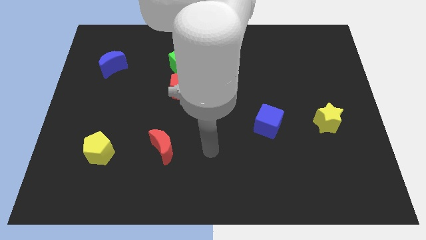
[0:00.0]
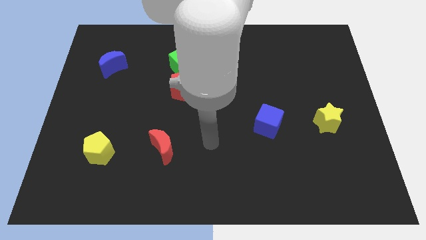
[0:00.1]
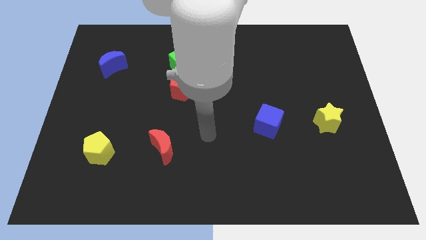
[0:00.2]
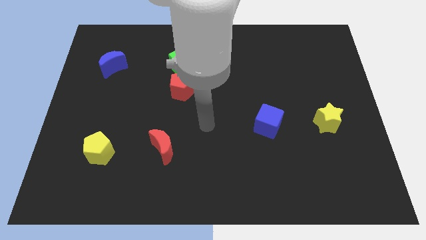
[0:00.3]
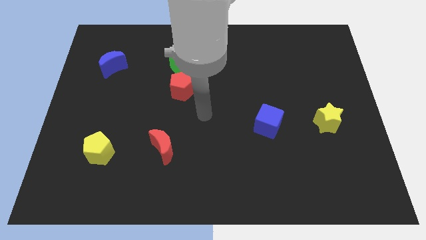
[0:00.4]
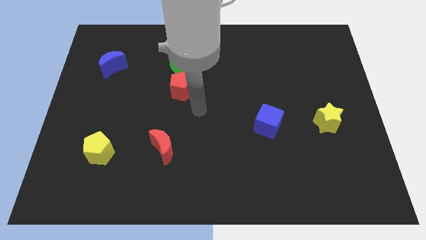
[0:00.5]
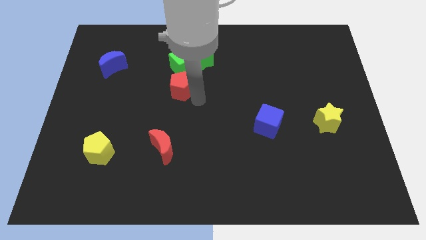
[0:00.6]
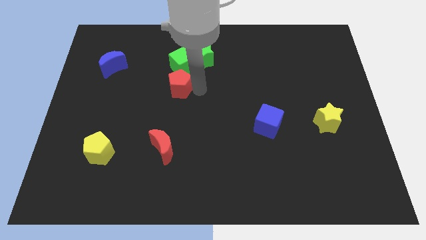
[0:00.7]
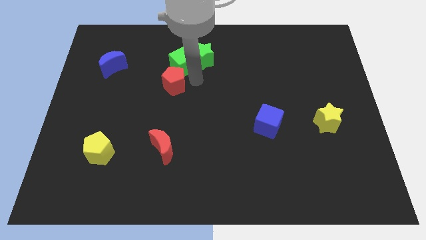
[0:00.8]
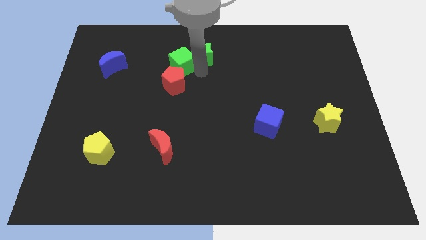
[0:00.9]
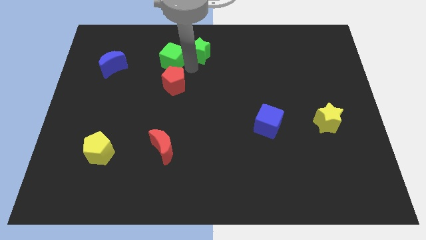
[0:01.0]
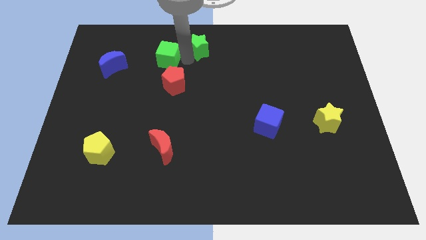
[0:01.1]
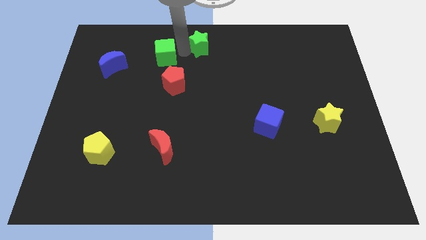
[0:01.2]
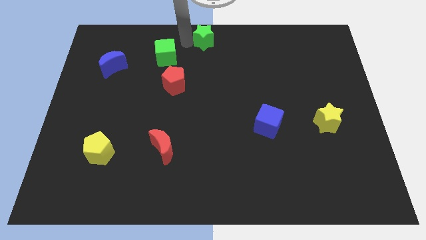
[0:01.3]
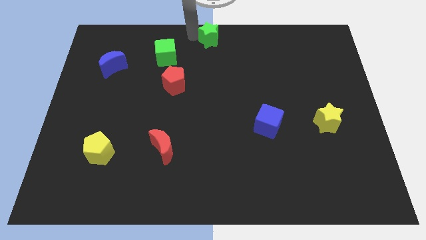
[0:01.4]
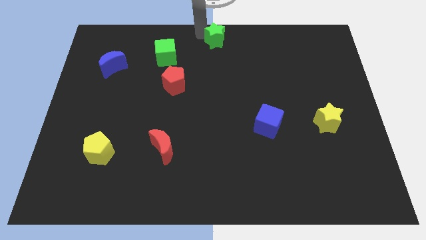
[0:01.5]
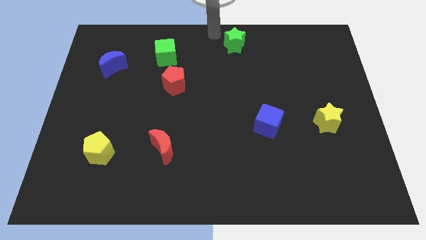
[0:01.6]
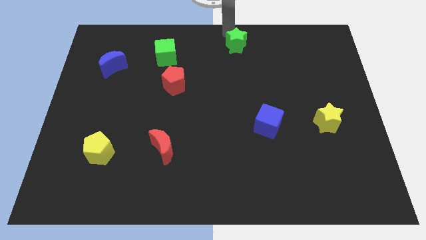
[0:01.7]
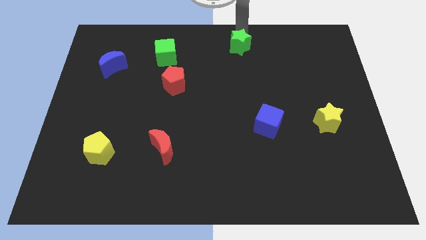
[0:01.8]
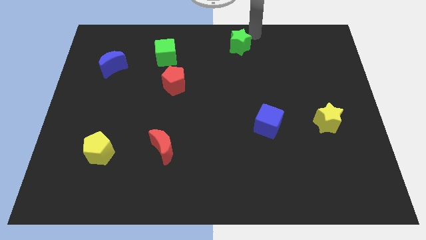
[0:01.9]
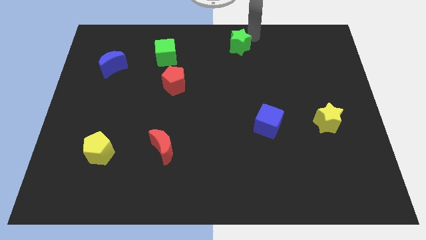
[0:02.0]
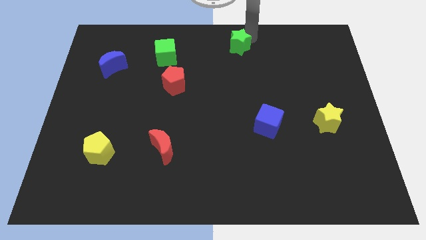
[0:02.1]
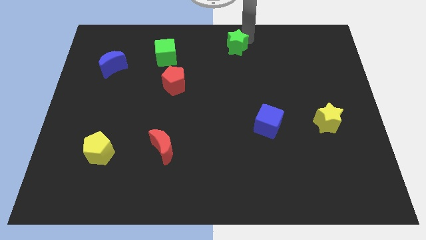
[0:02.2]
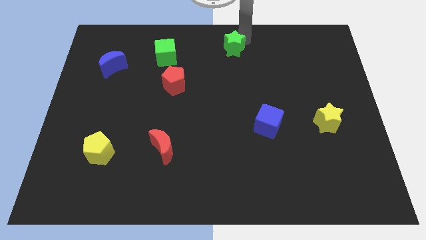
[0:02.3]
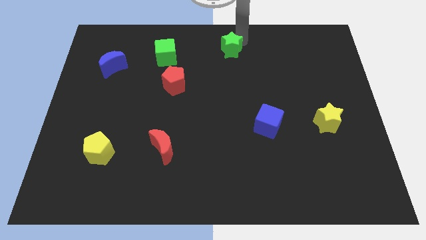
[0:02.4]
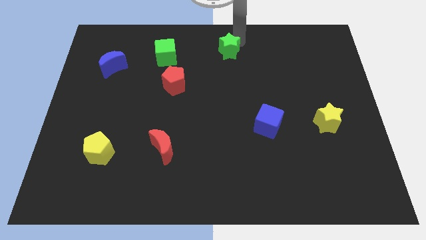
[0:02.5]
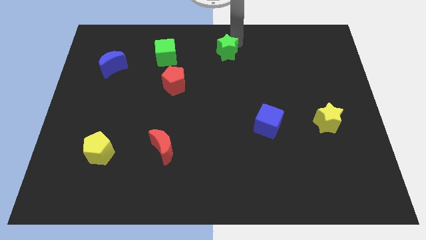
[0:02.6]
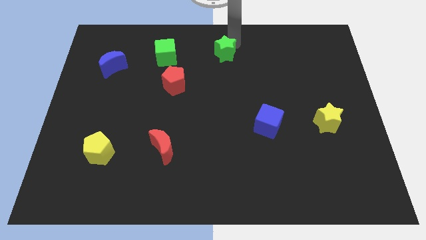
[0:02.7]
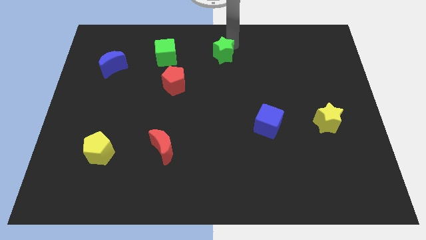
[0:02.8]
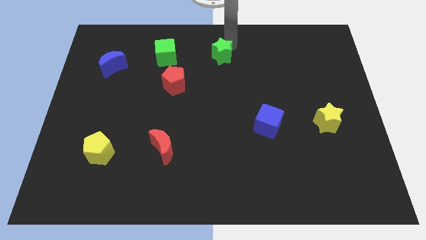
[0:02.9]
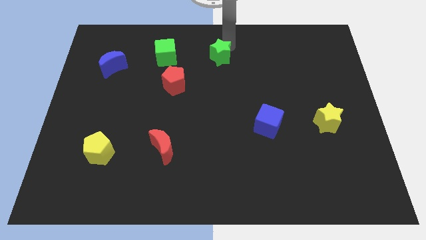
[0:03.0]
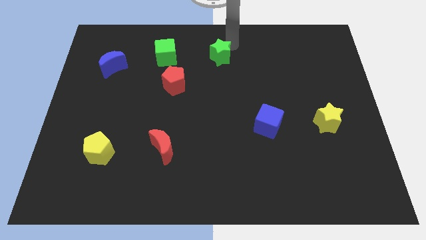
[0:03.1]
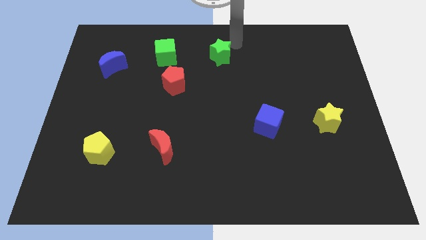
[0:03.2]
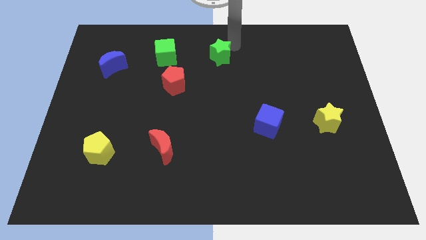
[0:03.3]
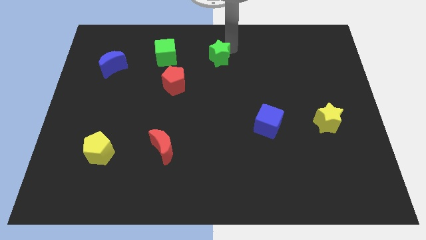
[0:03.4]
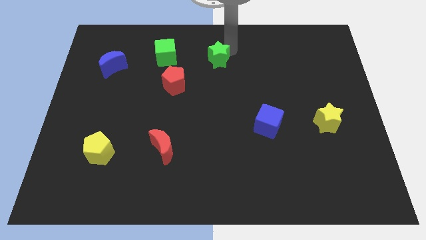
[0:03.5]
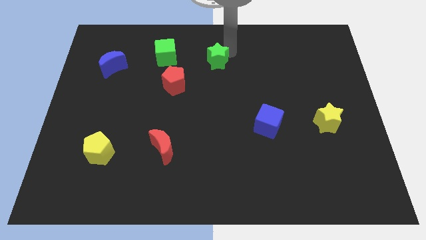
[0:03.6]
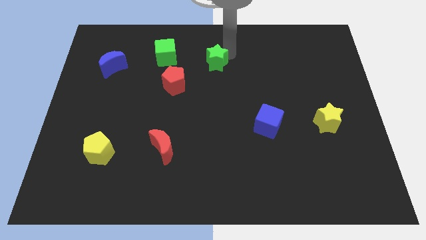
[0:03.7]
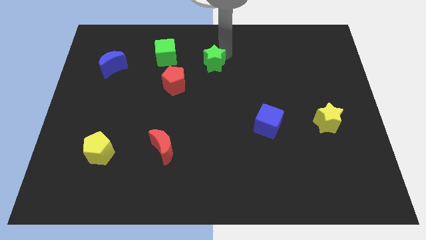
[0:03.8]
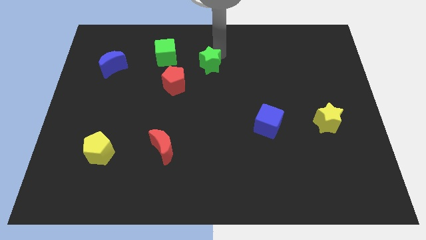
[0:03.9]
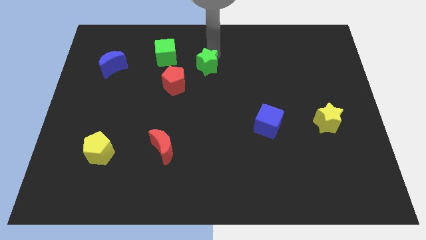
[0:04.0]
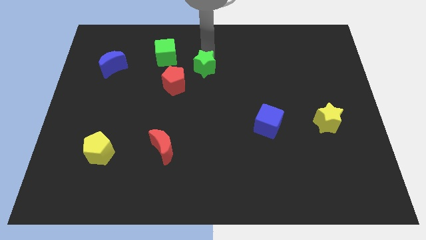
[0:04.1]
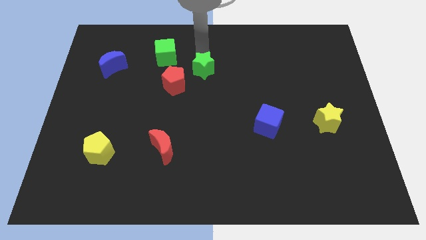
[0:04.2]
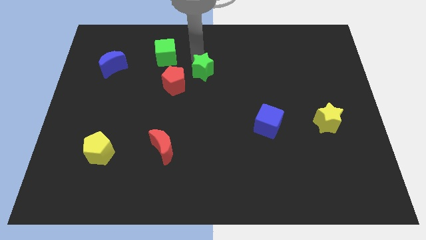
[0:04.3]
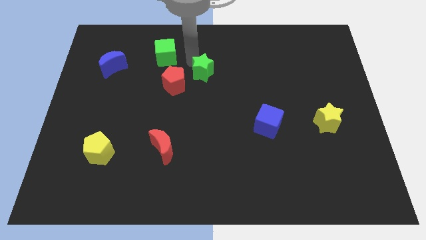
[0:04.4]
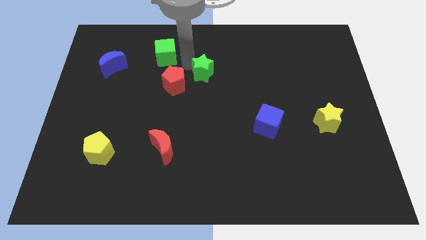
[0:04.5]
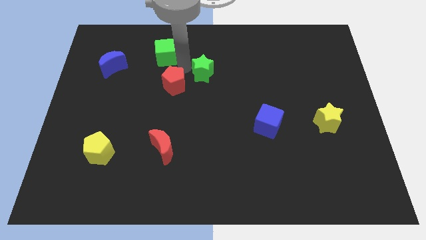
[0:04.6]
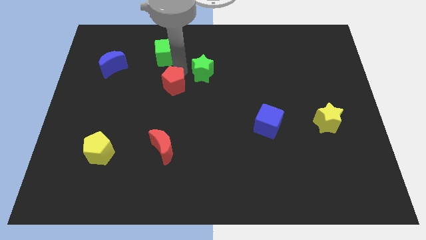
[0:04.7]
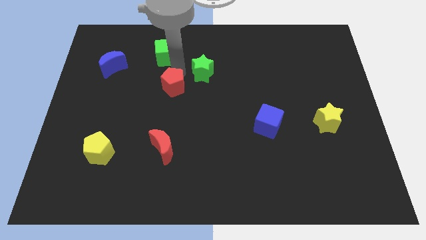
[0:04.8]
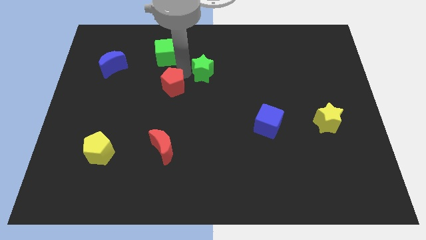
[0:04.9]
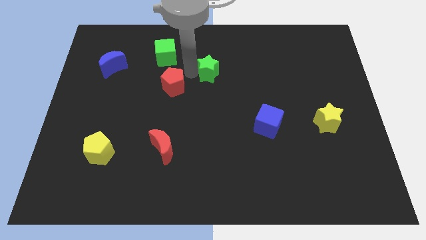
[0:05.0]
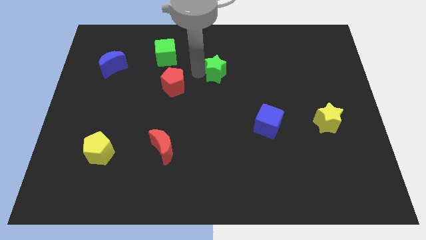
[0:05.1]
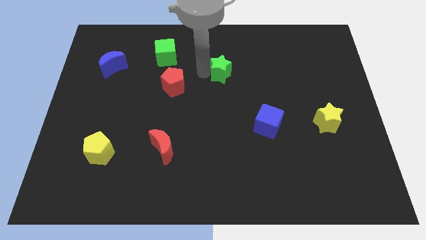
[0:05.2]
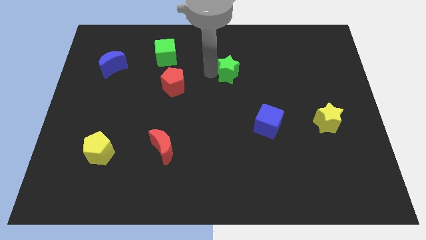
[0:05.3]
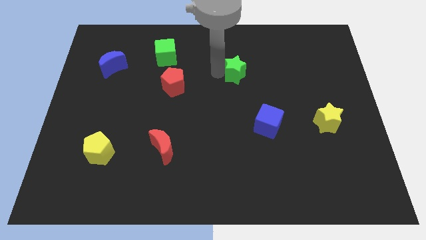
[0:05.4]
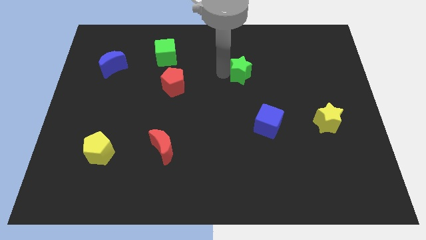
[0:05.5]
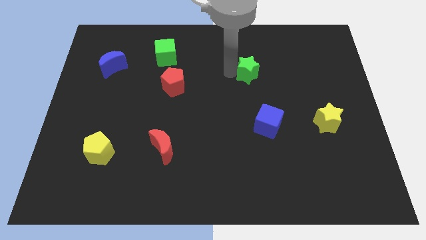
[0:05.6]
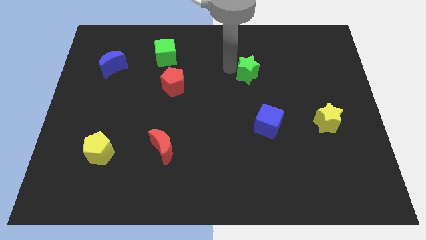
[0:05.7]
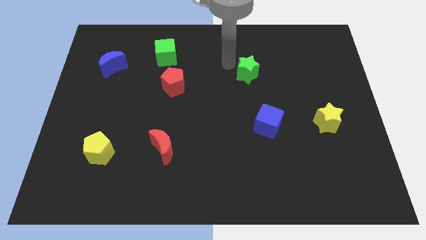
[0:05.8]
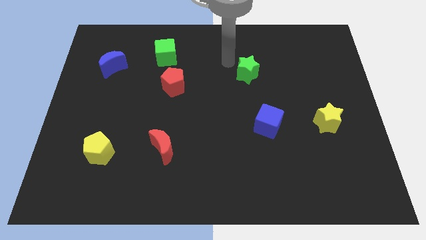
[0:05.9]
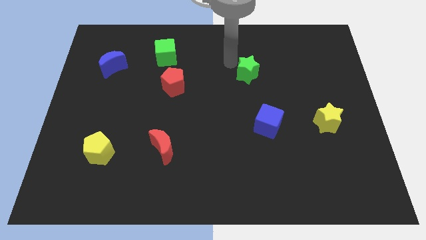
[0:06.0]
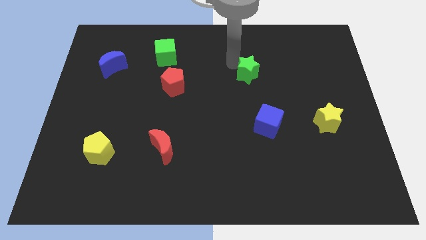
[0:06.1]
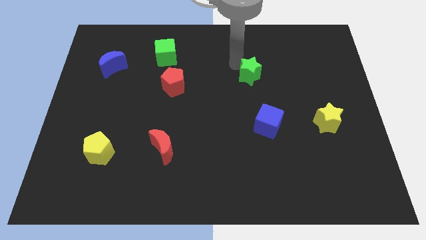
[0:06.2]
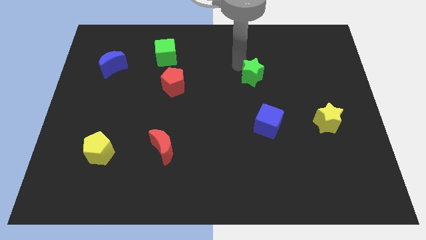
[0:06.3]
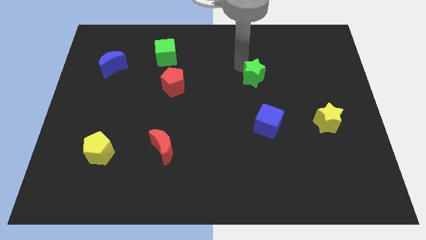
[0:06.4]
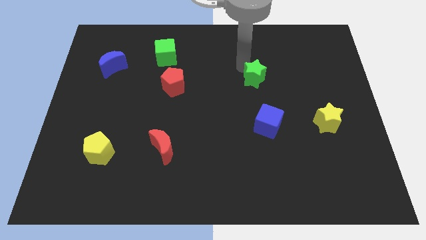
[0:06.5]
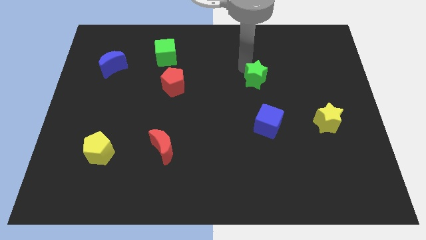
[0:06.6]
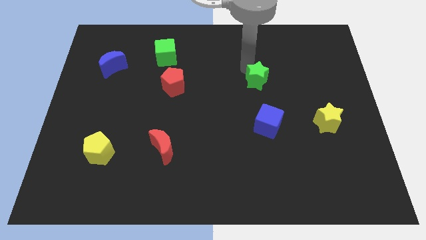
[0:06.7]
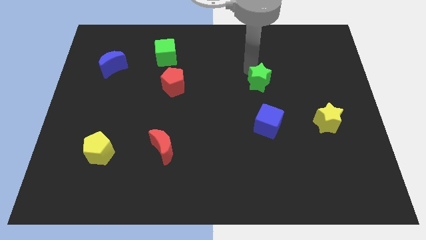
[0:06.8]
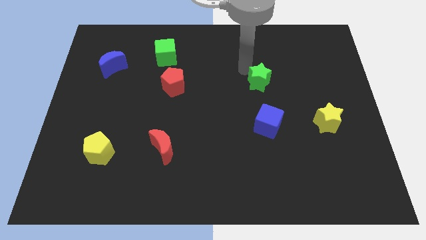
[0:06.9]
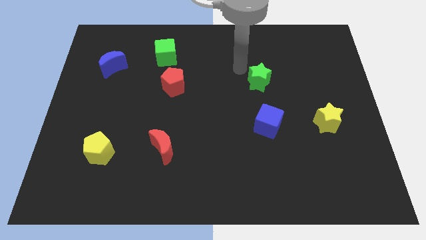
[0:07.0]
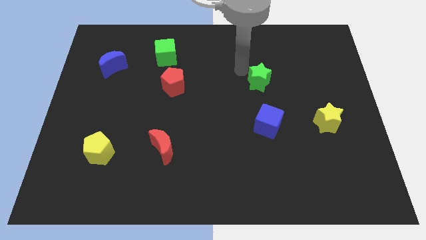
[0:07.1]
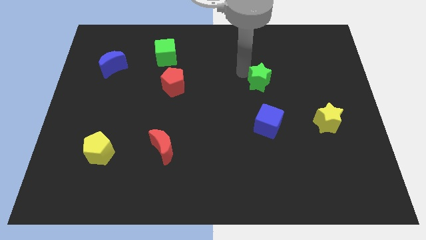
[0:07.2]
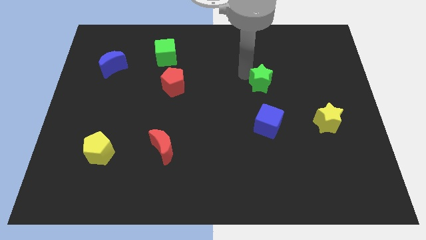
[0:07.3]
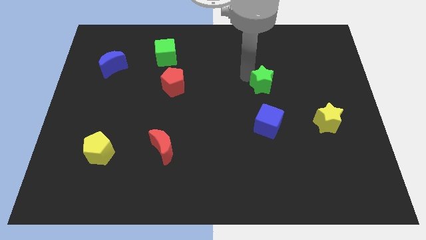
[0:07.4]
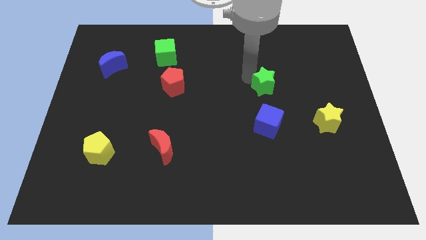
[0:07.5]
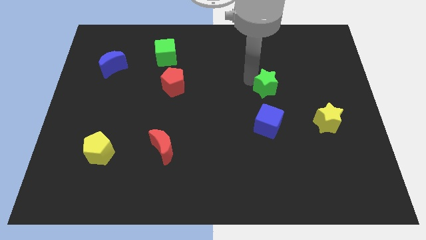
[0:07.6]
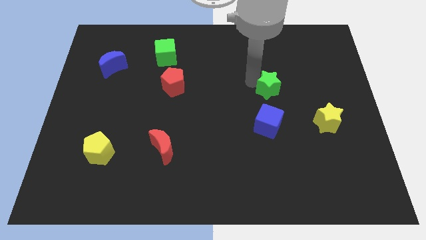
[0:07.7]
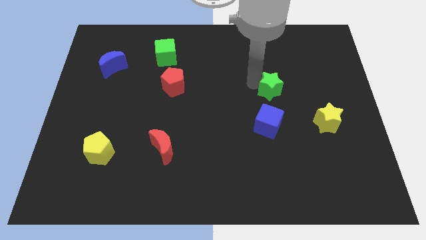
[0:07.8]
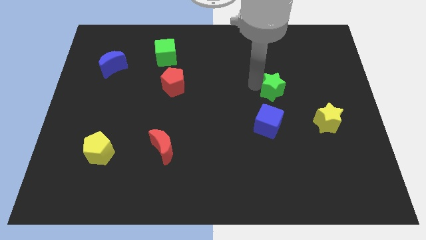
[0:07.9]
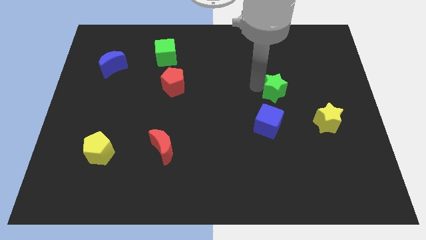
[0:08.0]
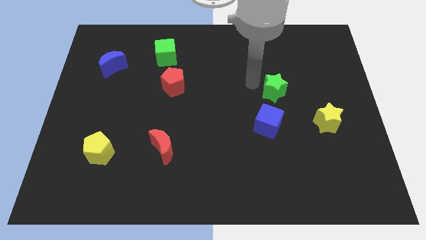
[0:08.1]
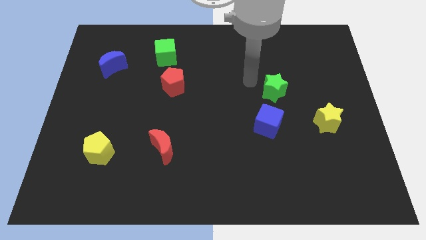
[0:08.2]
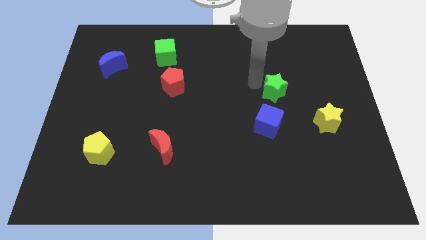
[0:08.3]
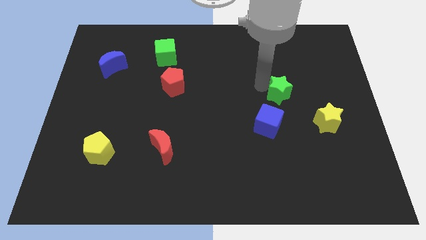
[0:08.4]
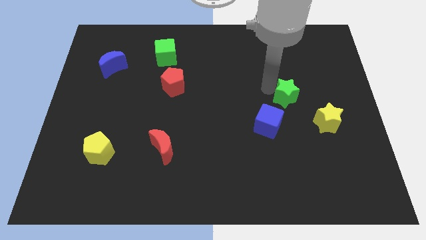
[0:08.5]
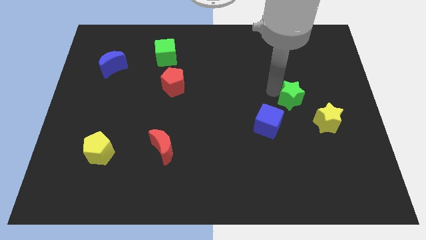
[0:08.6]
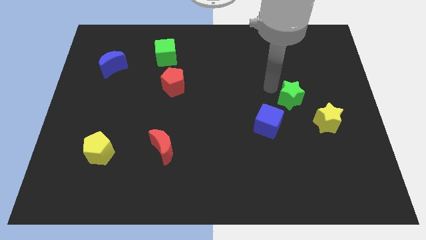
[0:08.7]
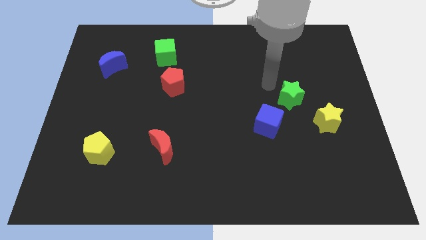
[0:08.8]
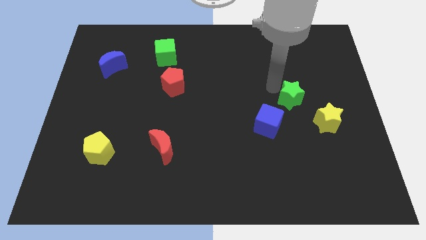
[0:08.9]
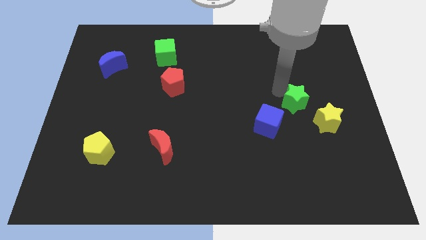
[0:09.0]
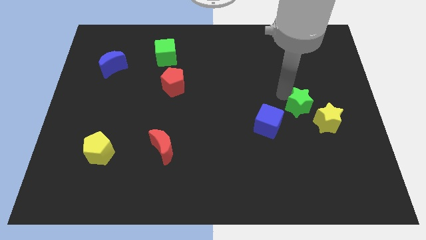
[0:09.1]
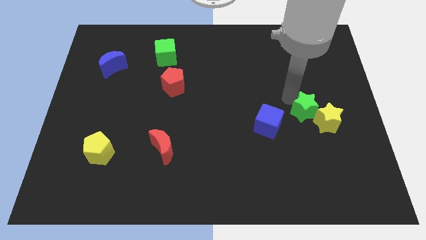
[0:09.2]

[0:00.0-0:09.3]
put the green star next to the yellow star
